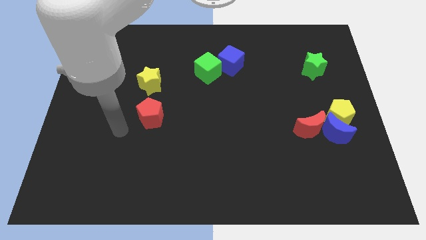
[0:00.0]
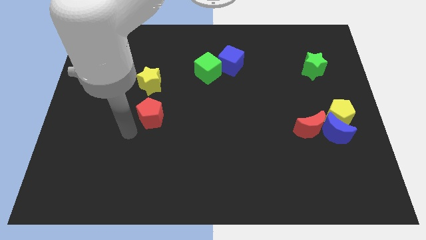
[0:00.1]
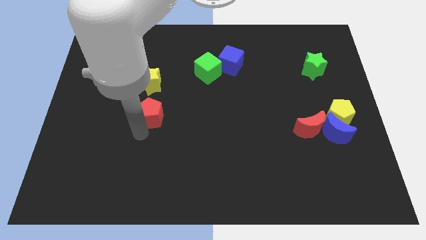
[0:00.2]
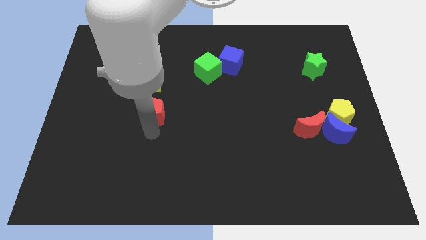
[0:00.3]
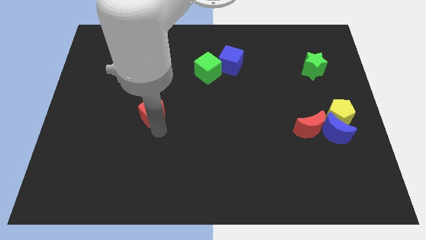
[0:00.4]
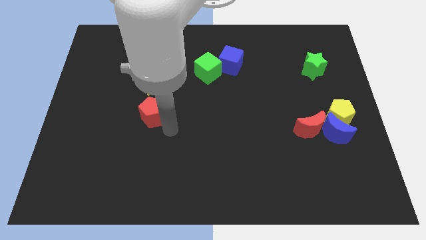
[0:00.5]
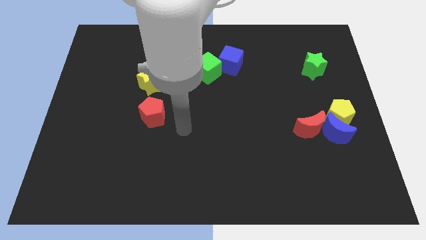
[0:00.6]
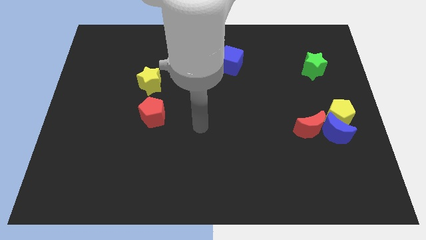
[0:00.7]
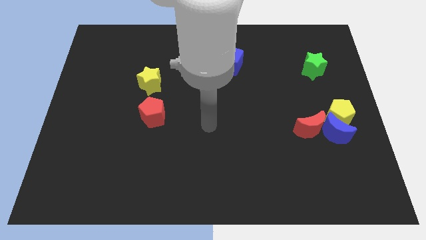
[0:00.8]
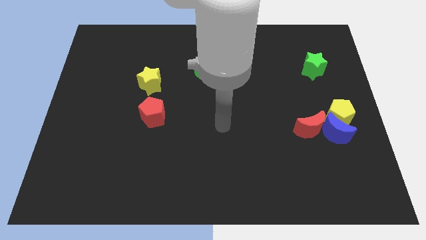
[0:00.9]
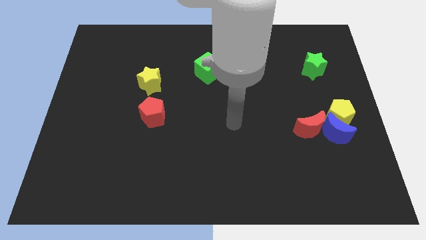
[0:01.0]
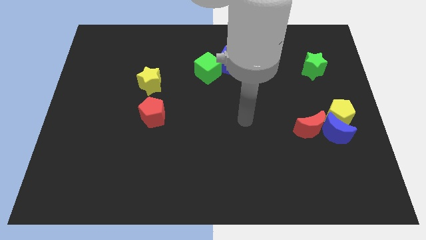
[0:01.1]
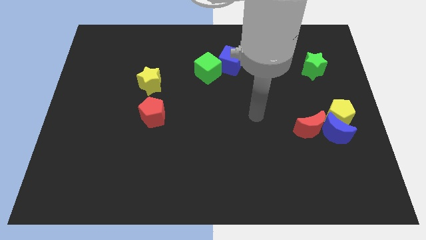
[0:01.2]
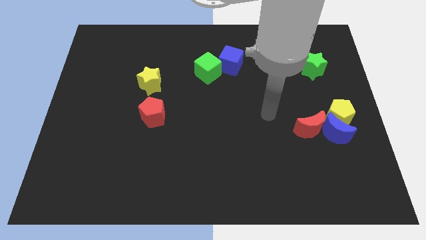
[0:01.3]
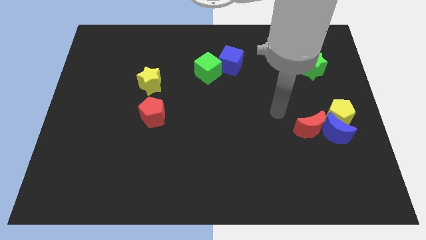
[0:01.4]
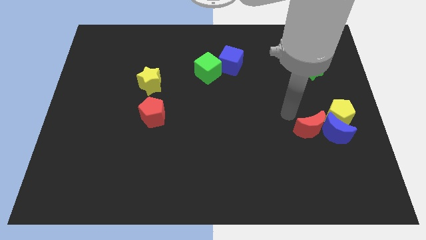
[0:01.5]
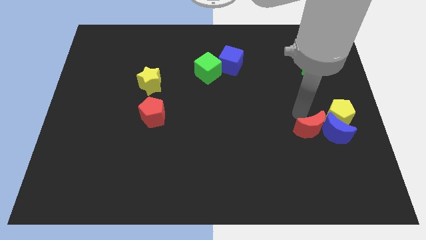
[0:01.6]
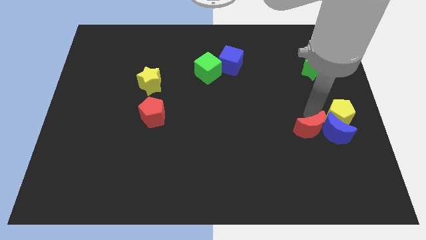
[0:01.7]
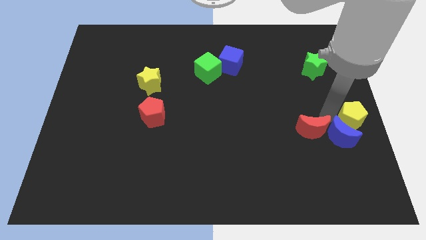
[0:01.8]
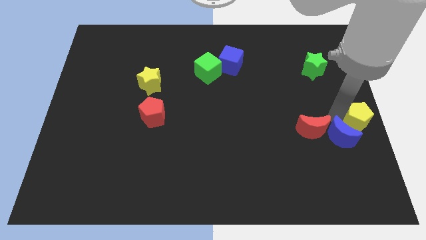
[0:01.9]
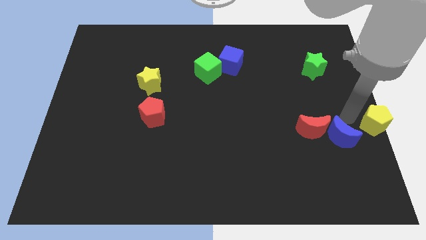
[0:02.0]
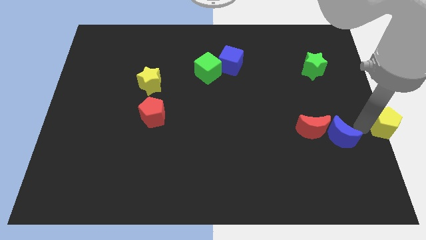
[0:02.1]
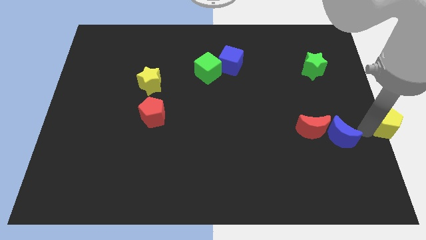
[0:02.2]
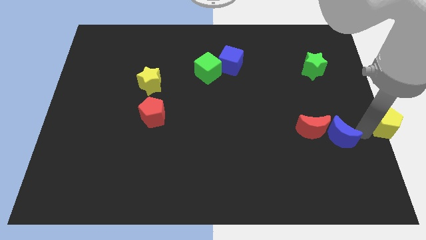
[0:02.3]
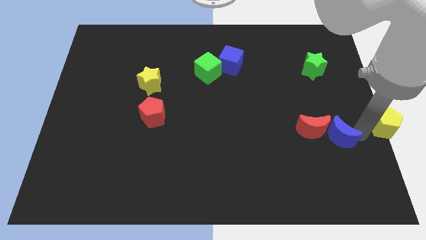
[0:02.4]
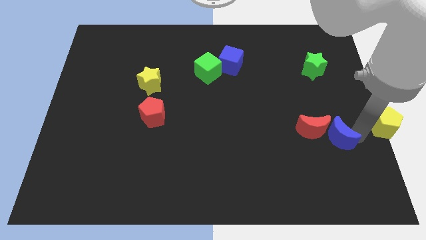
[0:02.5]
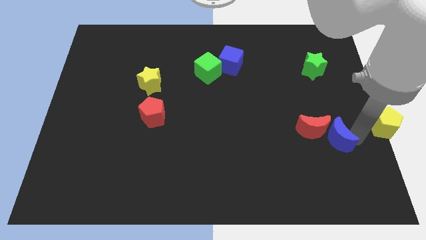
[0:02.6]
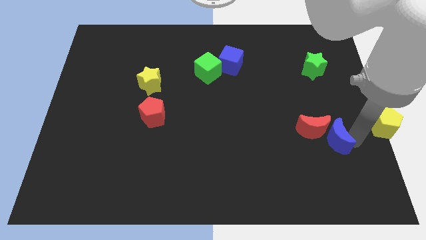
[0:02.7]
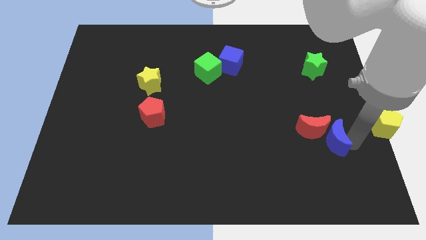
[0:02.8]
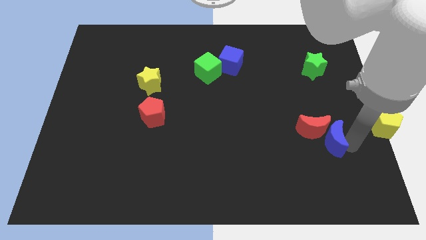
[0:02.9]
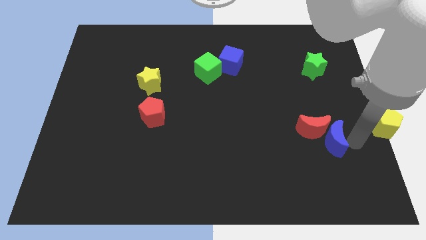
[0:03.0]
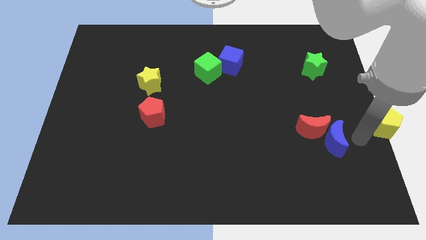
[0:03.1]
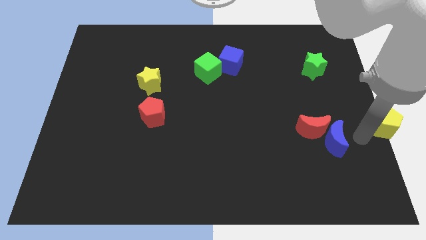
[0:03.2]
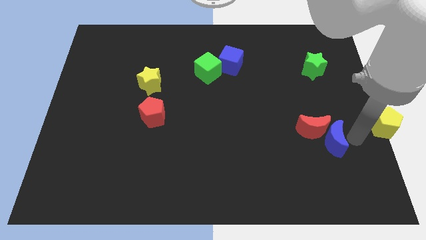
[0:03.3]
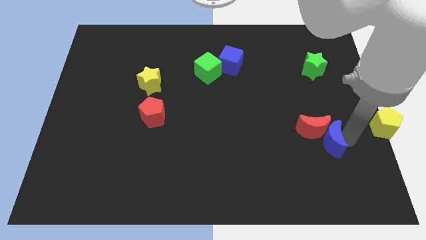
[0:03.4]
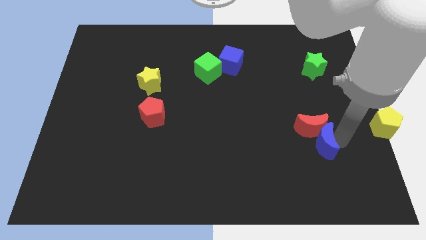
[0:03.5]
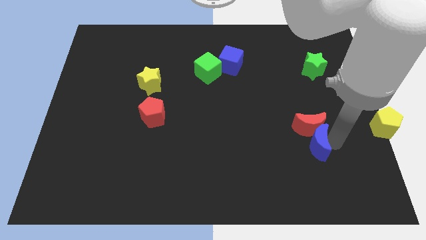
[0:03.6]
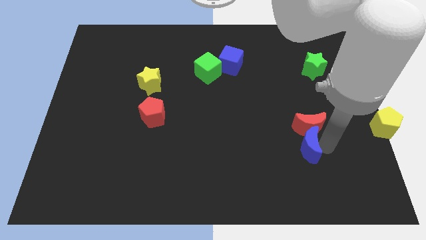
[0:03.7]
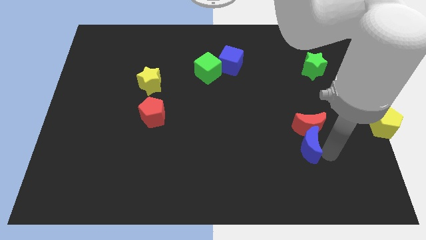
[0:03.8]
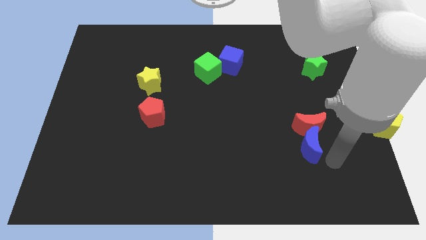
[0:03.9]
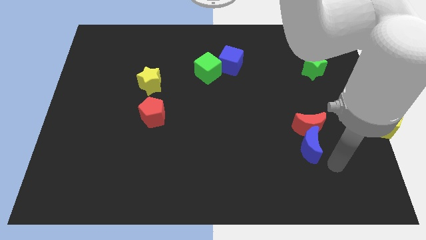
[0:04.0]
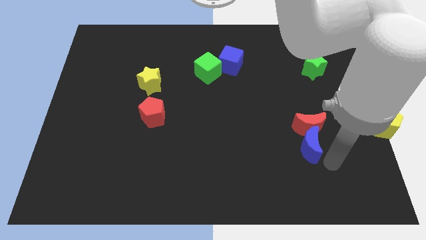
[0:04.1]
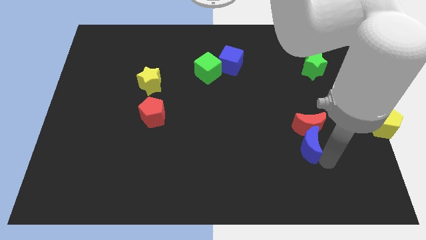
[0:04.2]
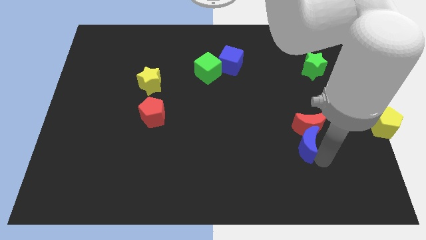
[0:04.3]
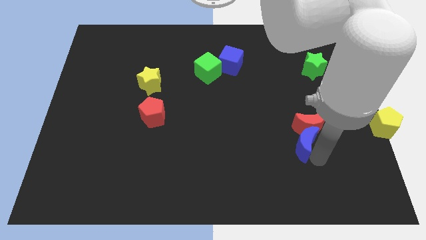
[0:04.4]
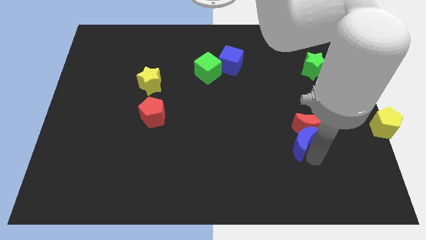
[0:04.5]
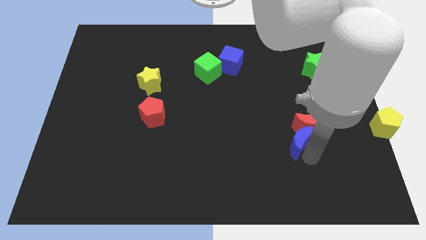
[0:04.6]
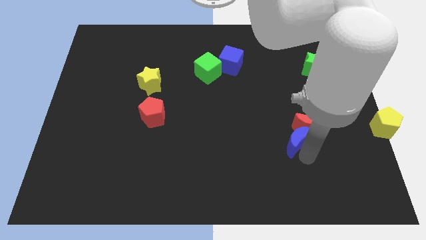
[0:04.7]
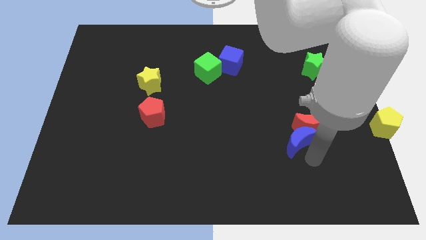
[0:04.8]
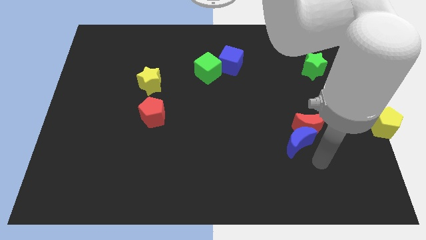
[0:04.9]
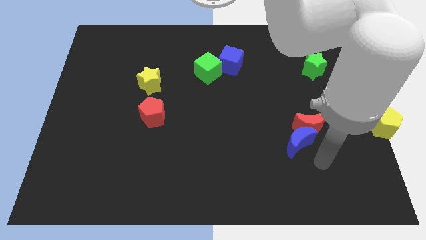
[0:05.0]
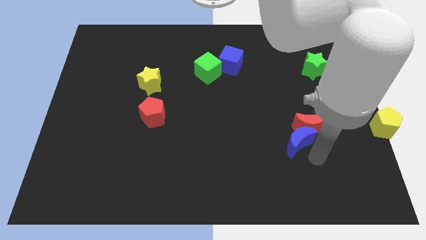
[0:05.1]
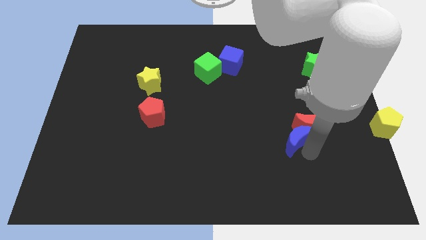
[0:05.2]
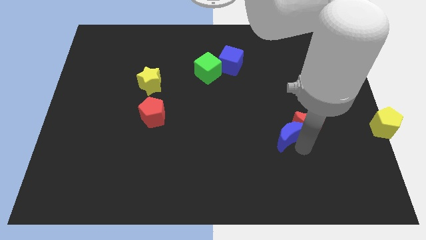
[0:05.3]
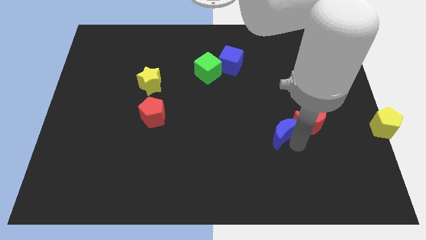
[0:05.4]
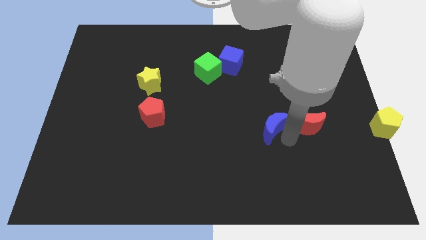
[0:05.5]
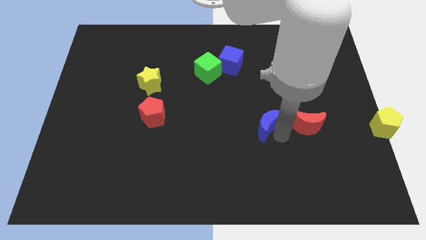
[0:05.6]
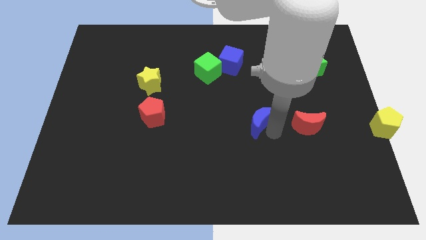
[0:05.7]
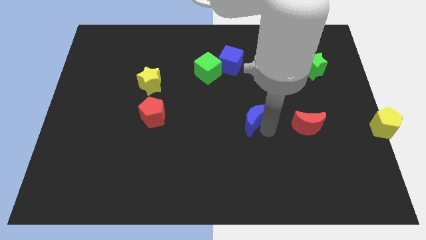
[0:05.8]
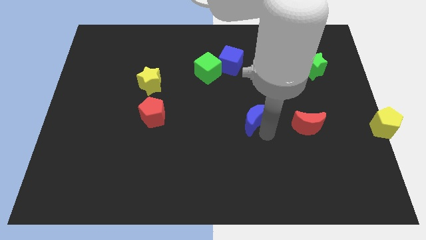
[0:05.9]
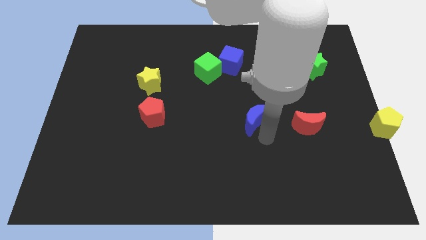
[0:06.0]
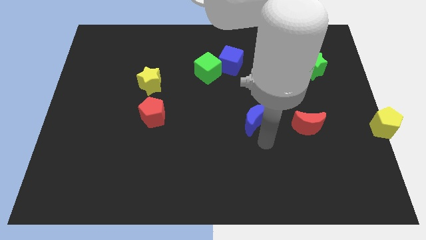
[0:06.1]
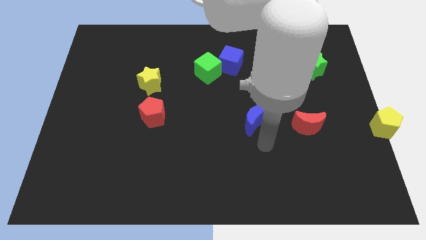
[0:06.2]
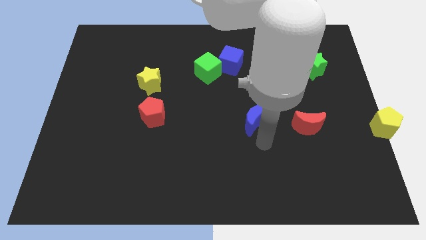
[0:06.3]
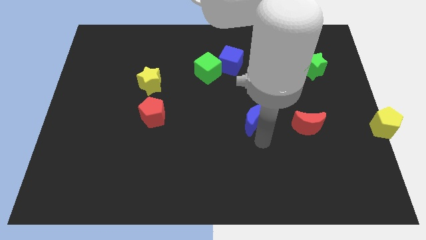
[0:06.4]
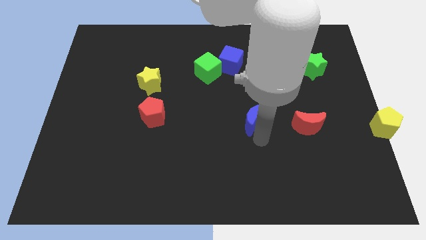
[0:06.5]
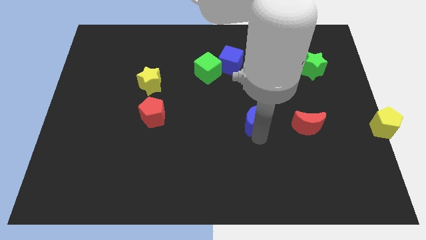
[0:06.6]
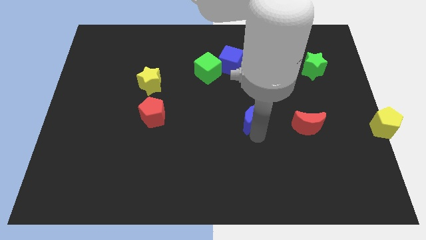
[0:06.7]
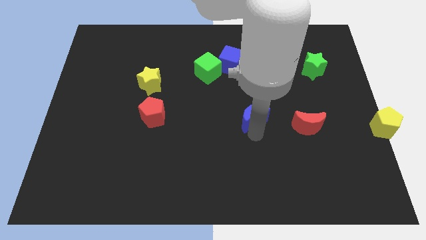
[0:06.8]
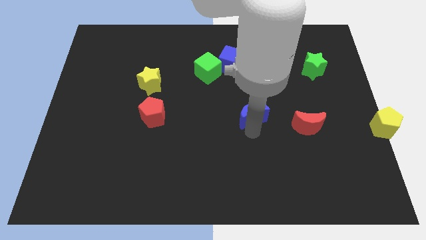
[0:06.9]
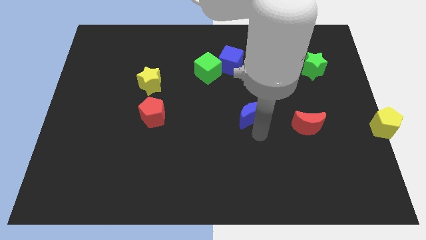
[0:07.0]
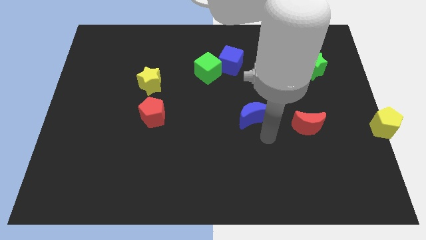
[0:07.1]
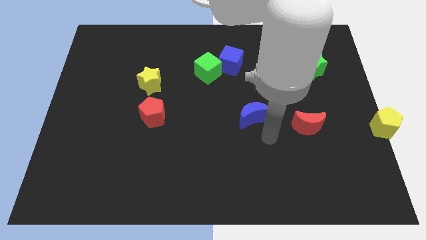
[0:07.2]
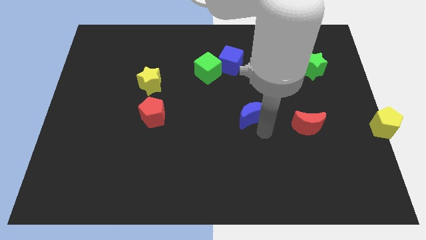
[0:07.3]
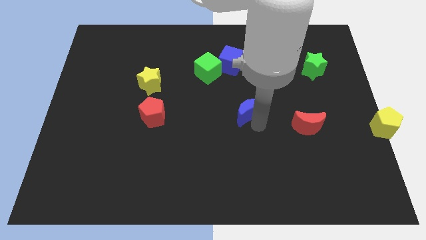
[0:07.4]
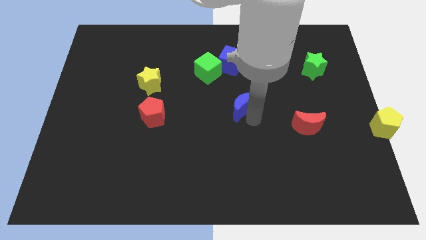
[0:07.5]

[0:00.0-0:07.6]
move the blue moon below the blue cube
